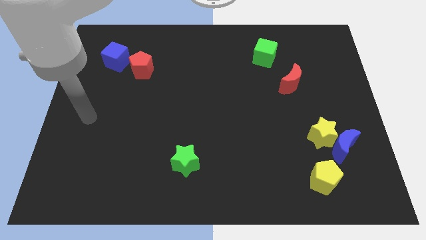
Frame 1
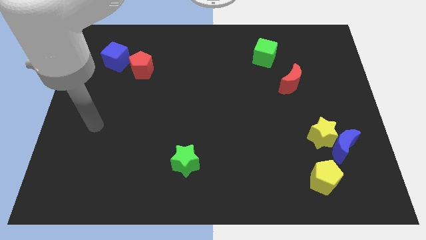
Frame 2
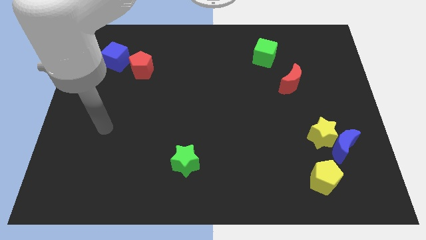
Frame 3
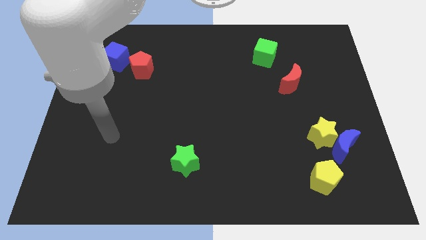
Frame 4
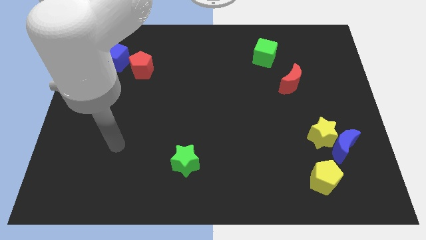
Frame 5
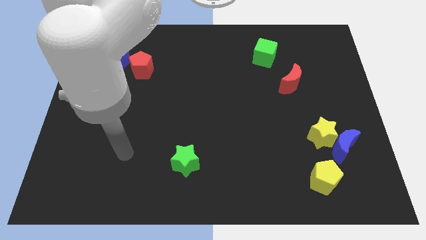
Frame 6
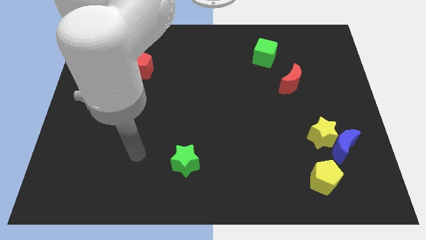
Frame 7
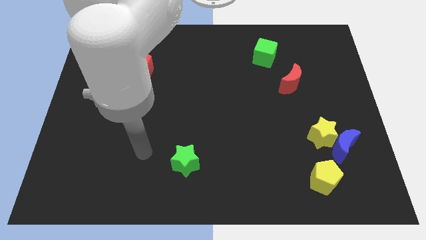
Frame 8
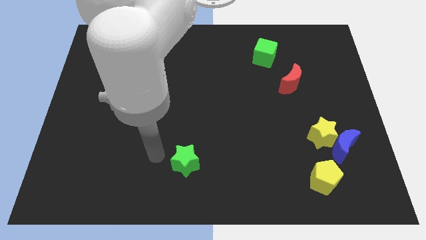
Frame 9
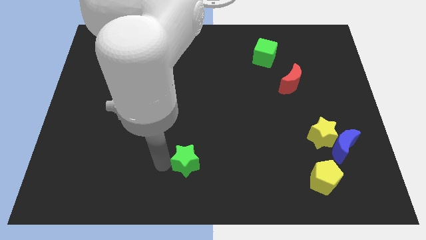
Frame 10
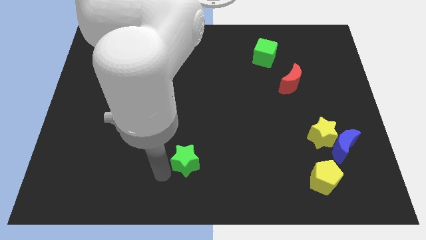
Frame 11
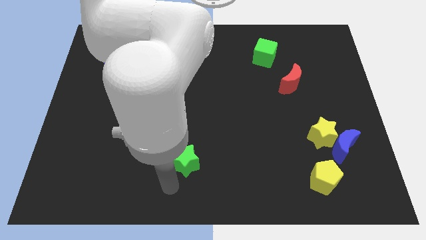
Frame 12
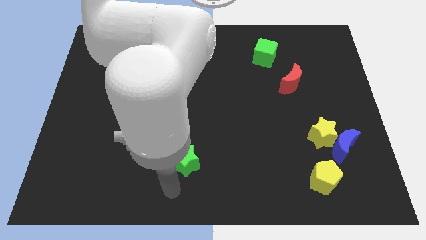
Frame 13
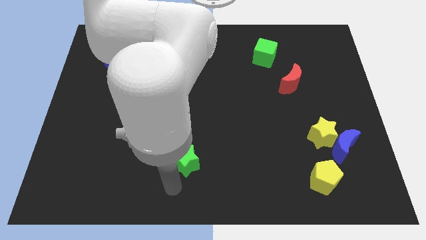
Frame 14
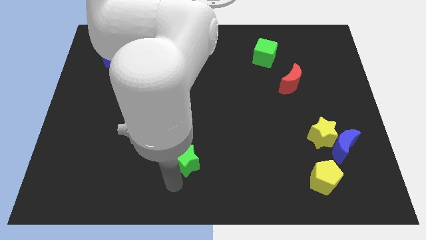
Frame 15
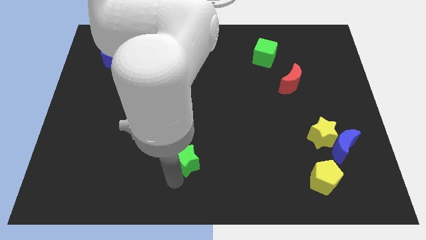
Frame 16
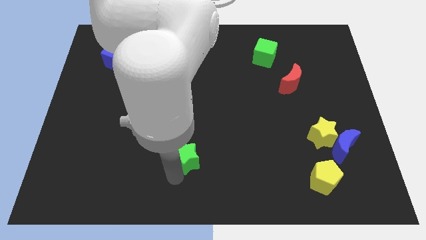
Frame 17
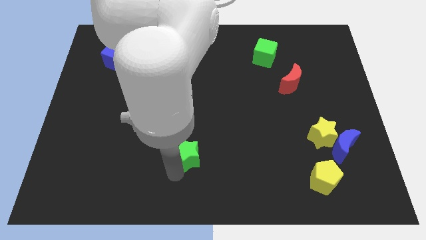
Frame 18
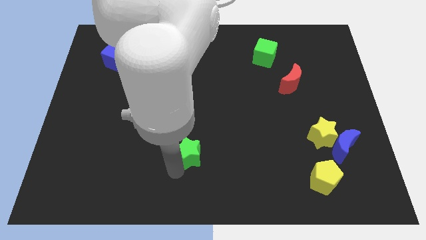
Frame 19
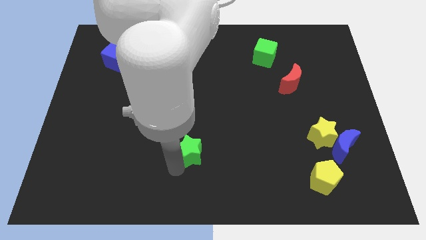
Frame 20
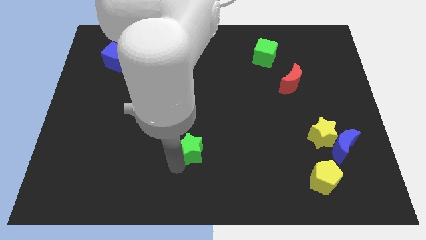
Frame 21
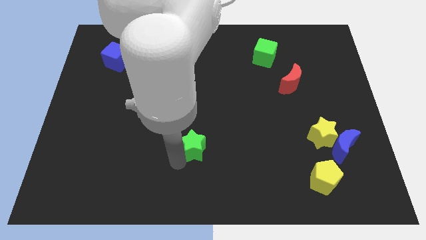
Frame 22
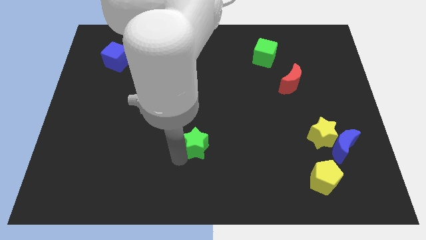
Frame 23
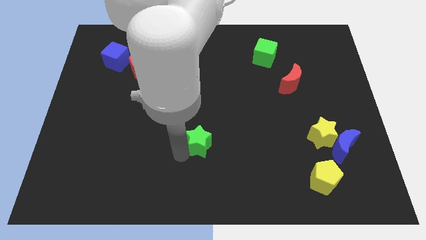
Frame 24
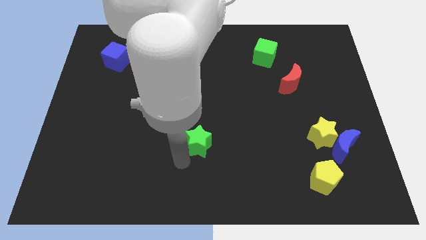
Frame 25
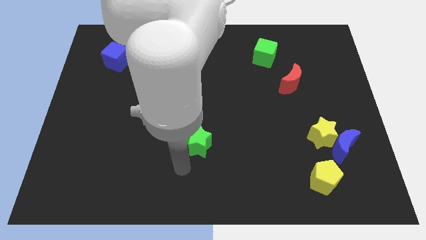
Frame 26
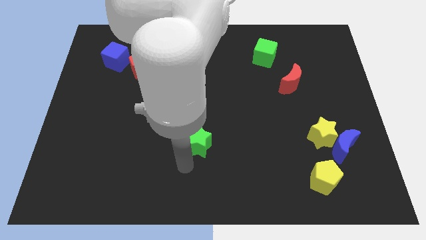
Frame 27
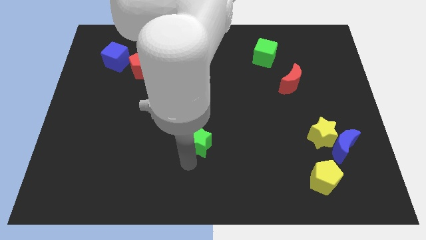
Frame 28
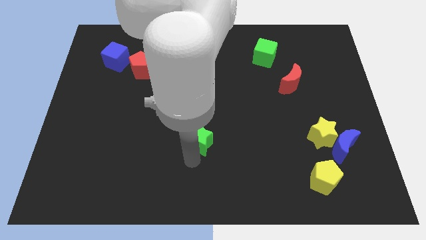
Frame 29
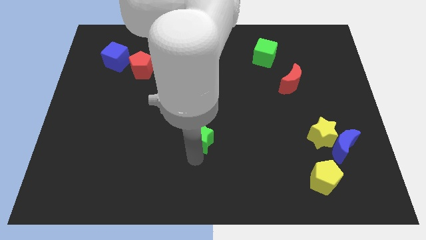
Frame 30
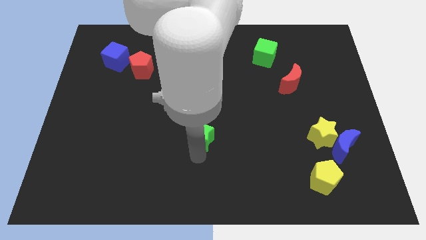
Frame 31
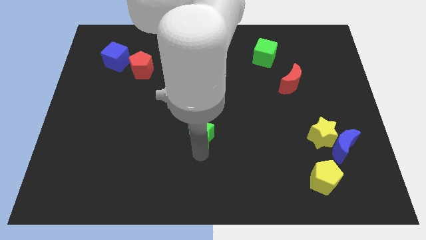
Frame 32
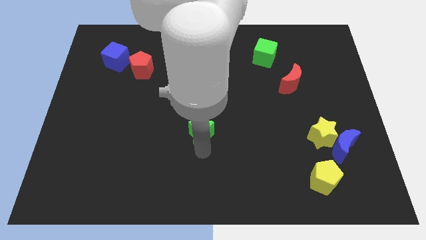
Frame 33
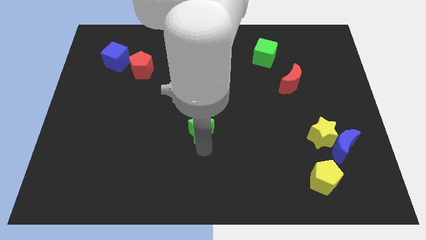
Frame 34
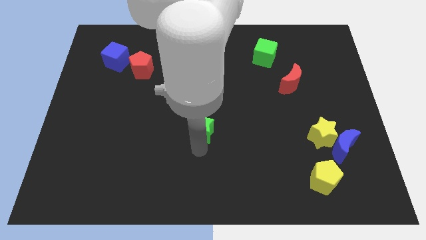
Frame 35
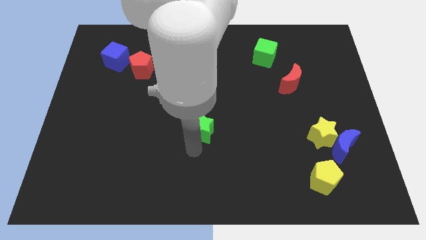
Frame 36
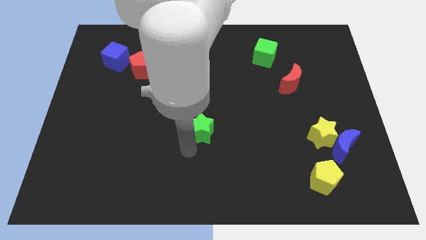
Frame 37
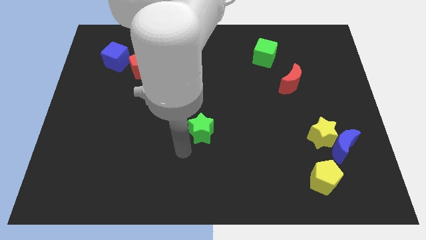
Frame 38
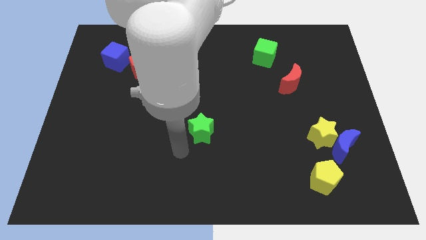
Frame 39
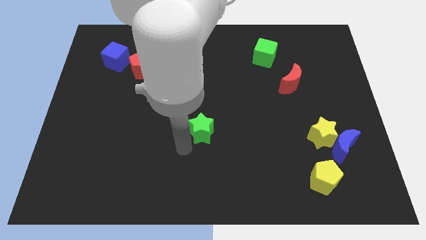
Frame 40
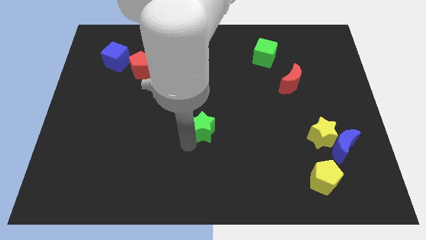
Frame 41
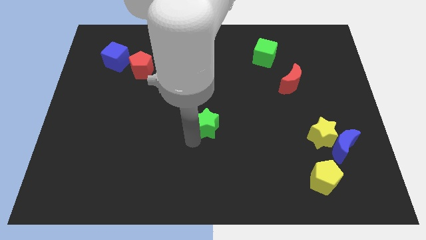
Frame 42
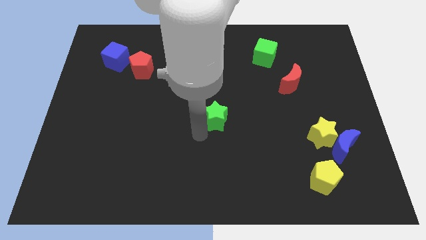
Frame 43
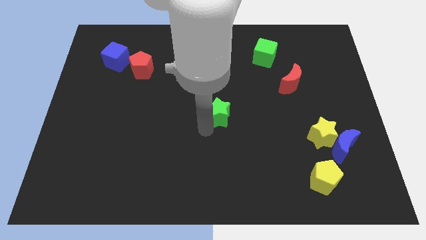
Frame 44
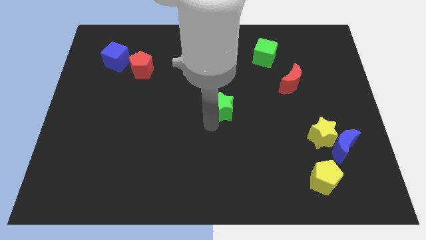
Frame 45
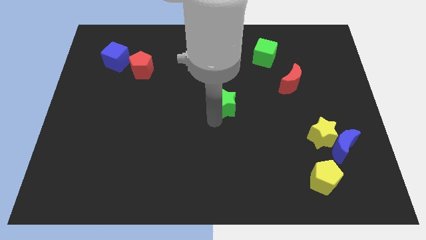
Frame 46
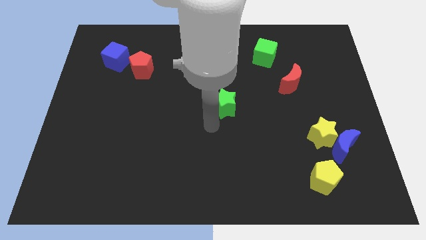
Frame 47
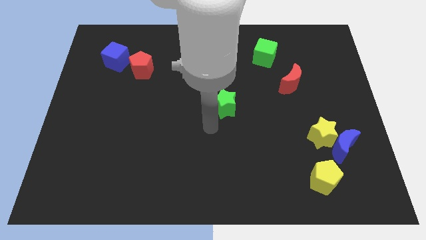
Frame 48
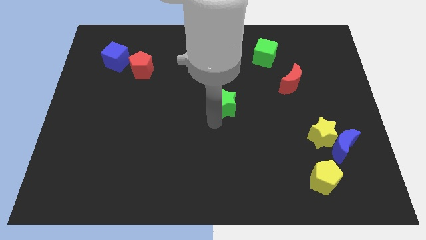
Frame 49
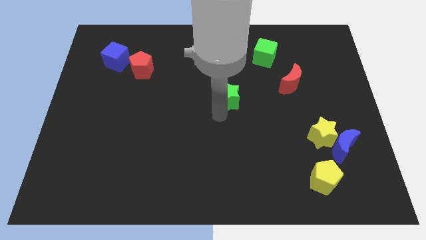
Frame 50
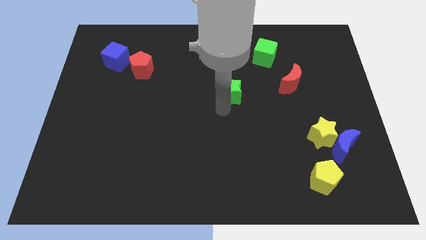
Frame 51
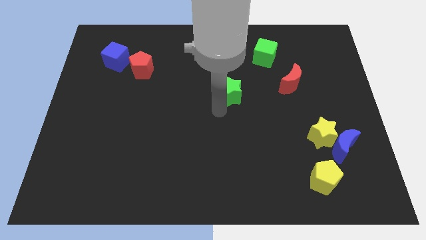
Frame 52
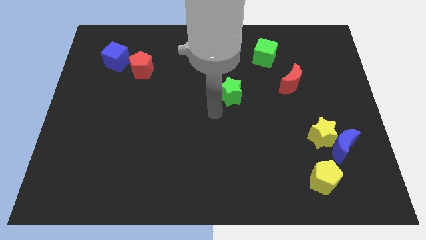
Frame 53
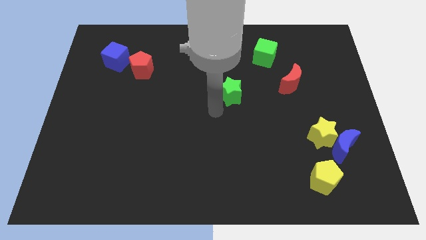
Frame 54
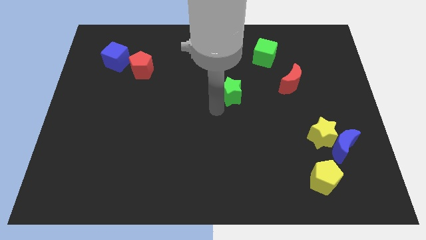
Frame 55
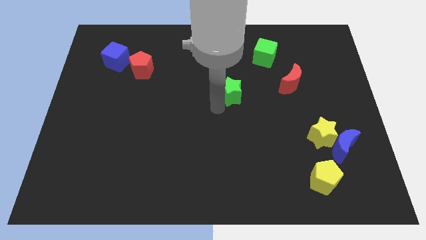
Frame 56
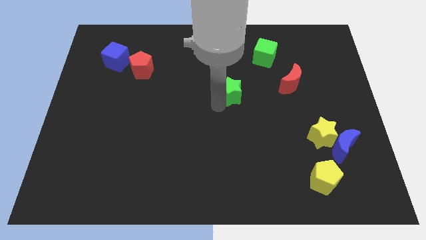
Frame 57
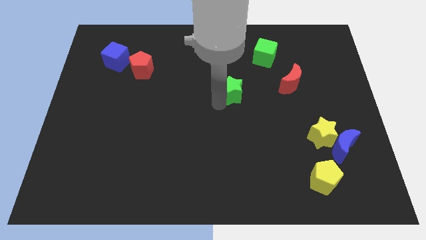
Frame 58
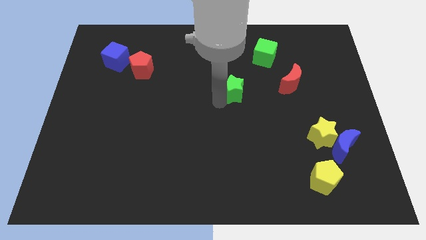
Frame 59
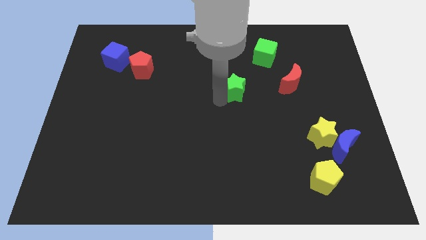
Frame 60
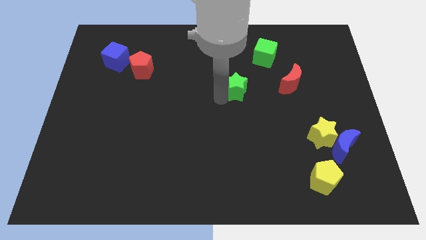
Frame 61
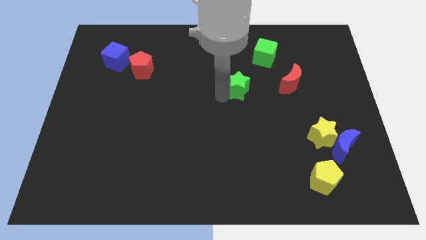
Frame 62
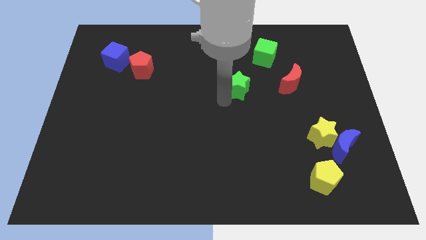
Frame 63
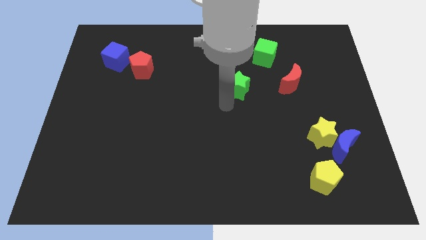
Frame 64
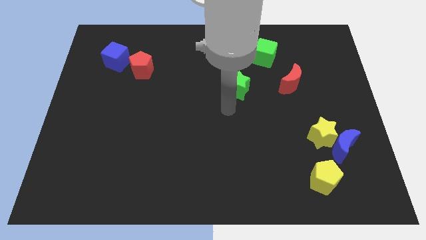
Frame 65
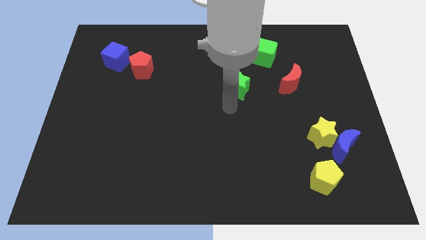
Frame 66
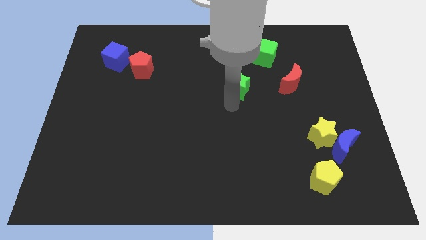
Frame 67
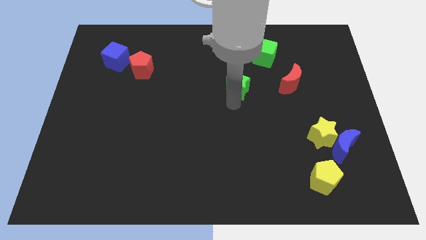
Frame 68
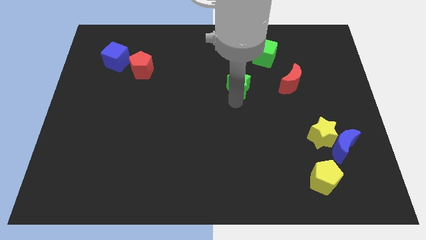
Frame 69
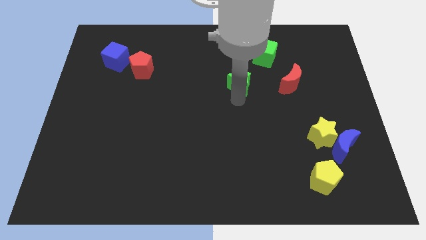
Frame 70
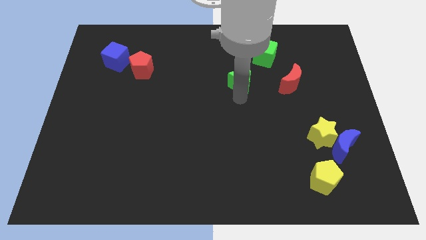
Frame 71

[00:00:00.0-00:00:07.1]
push the green star diagonally down and to the left of the green cube

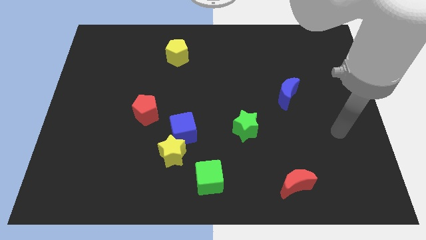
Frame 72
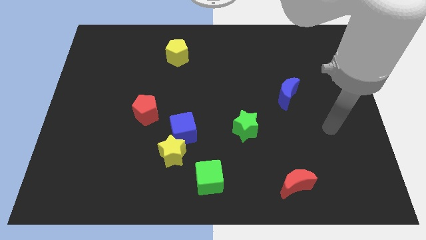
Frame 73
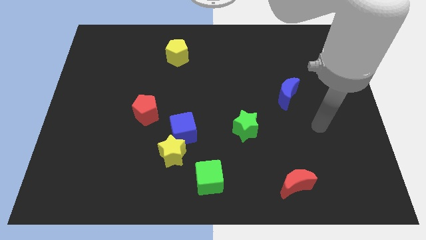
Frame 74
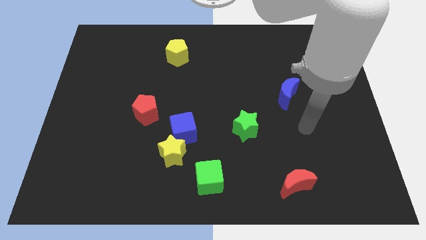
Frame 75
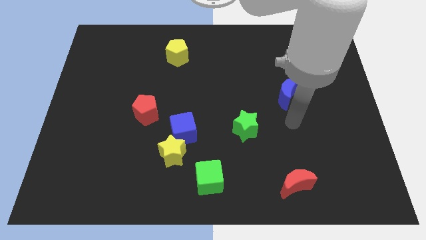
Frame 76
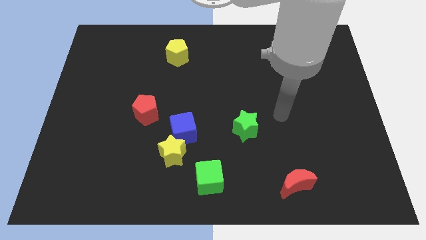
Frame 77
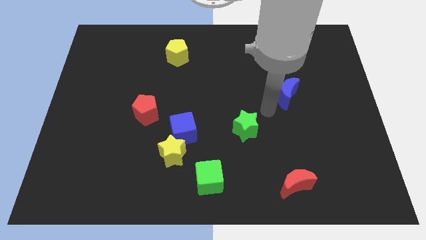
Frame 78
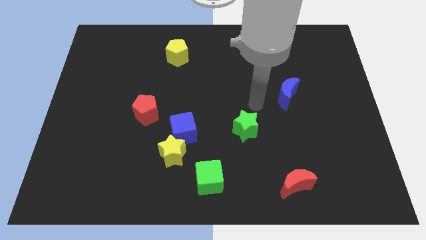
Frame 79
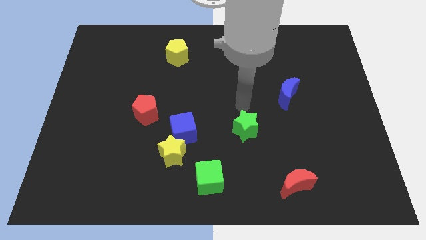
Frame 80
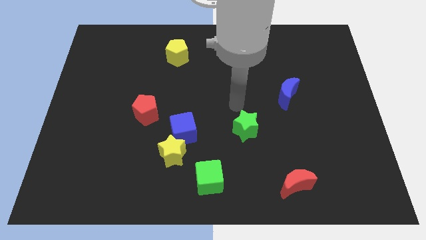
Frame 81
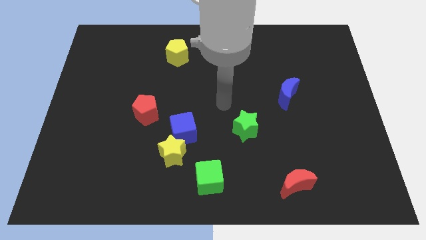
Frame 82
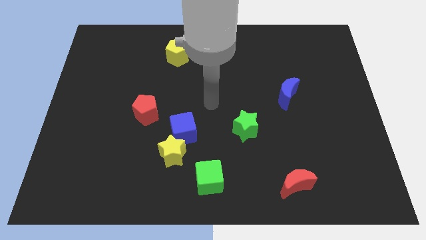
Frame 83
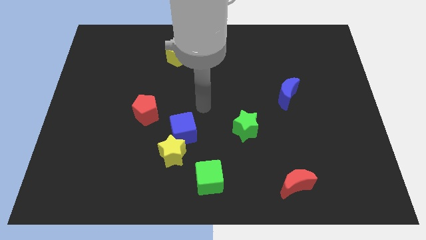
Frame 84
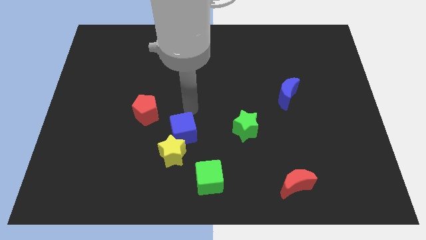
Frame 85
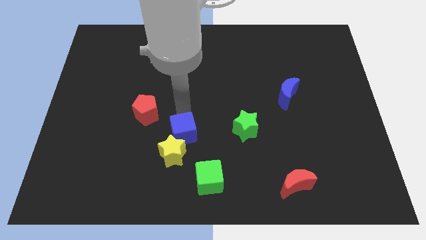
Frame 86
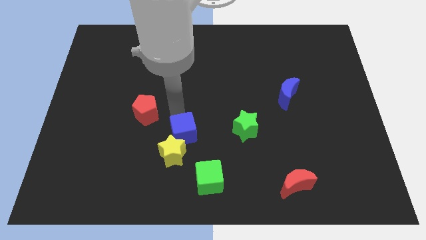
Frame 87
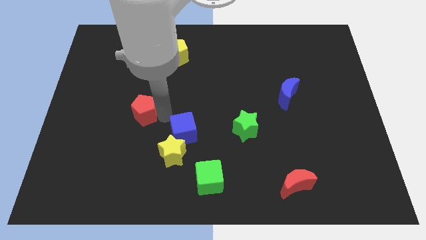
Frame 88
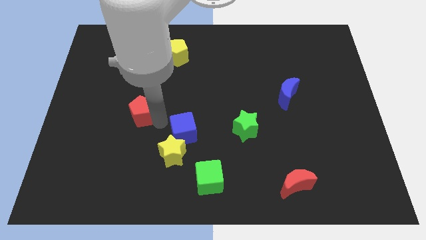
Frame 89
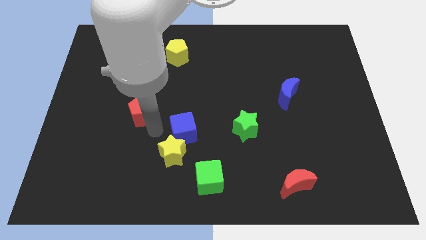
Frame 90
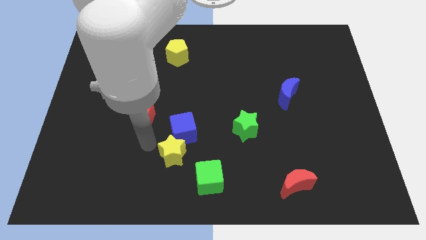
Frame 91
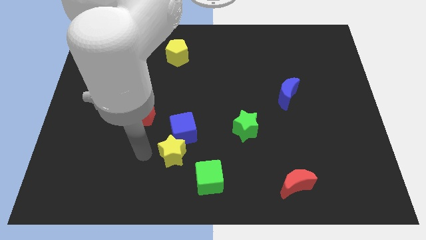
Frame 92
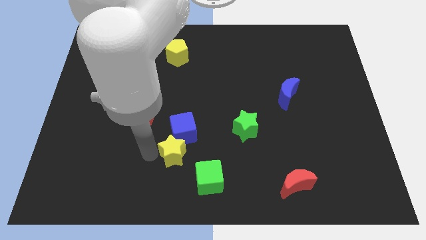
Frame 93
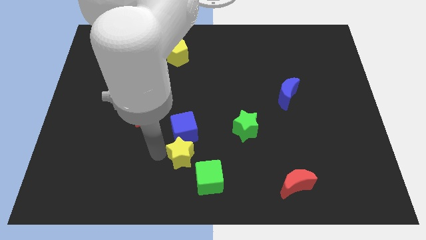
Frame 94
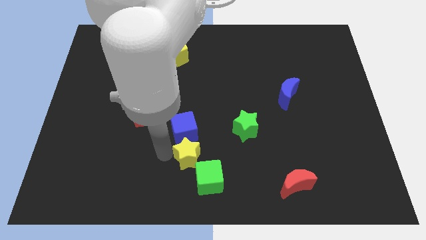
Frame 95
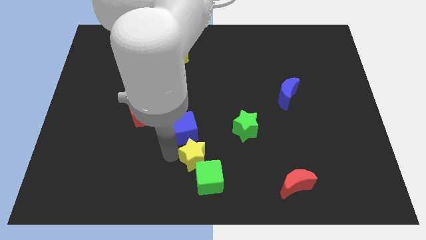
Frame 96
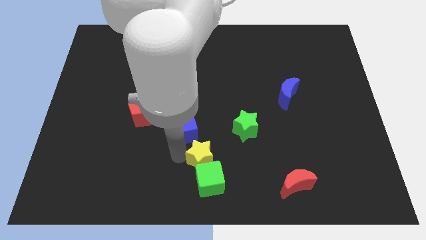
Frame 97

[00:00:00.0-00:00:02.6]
put the yellow star diagonally down and to the left of the green star
